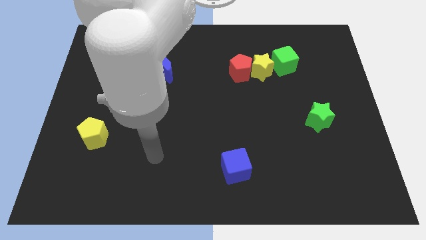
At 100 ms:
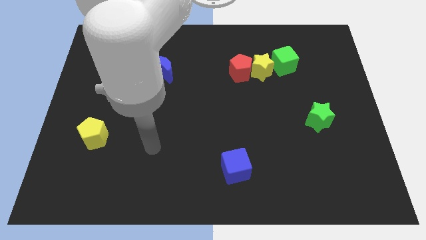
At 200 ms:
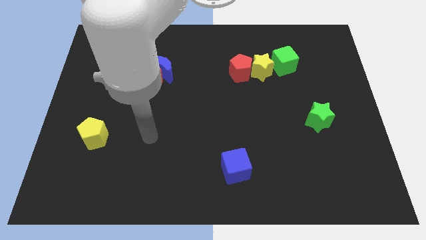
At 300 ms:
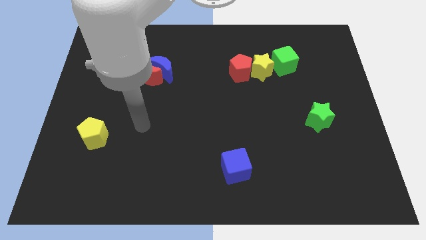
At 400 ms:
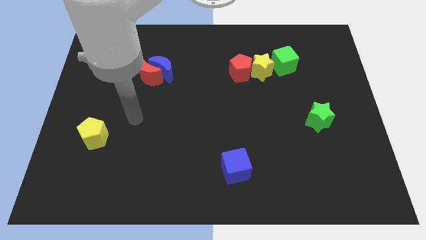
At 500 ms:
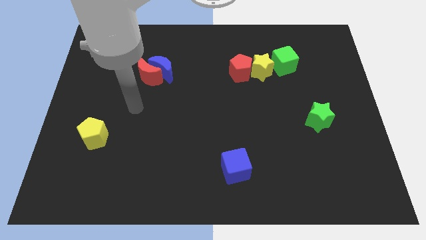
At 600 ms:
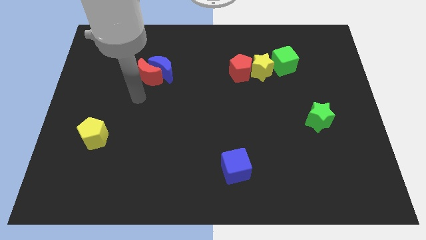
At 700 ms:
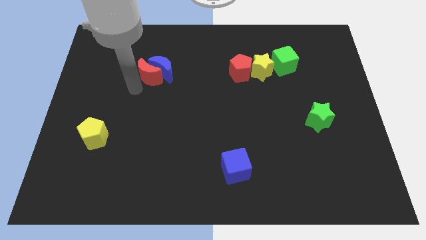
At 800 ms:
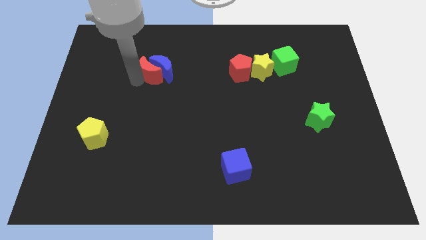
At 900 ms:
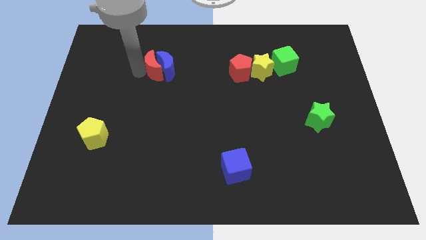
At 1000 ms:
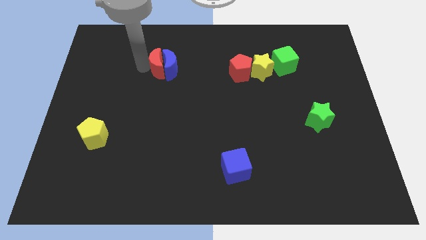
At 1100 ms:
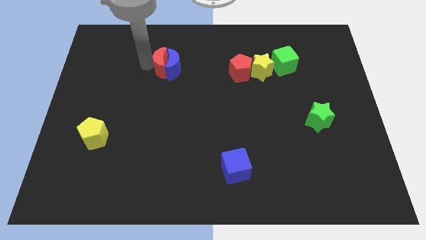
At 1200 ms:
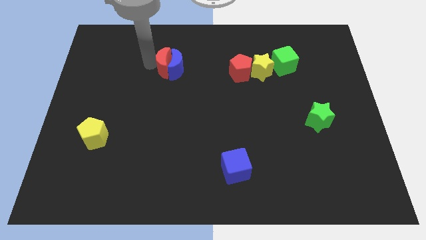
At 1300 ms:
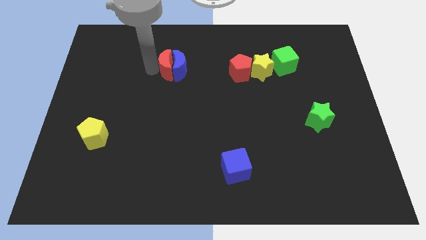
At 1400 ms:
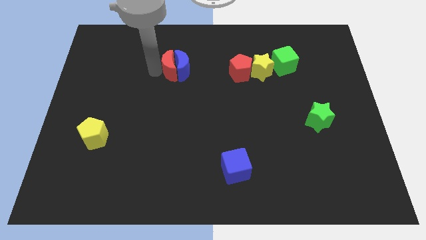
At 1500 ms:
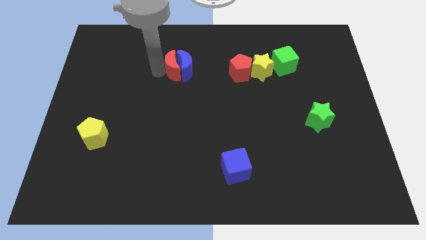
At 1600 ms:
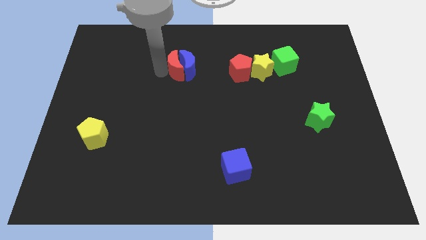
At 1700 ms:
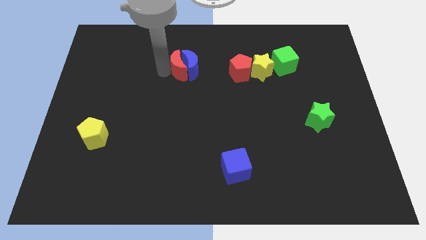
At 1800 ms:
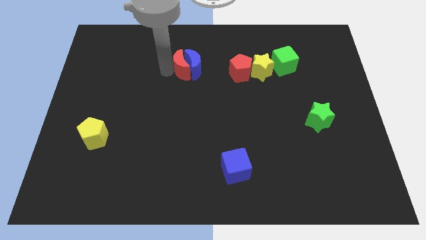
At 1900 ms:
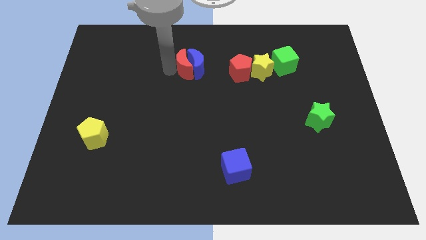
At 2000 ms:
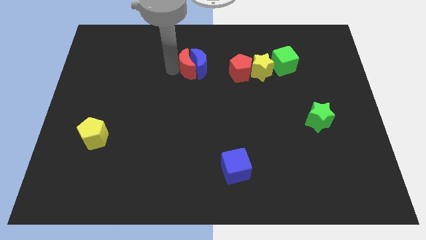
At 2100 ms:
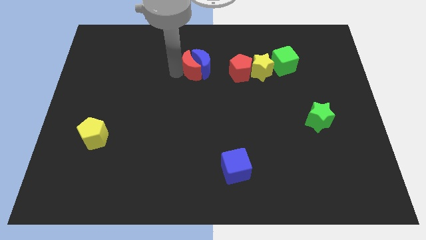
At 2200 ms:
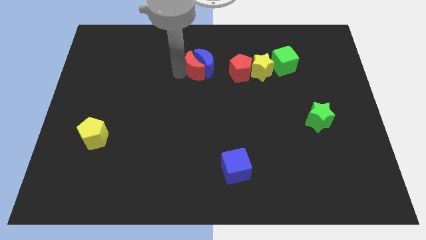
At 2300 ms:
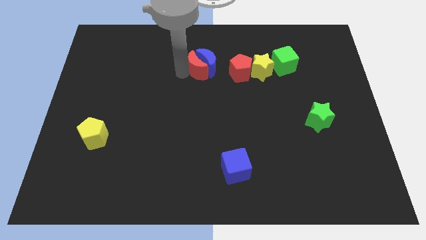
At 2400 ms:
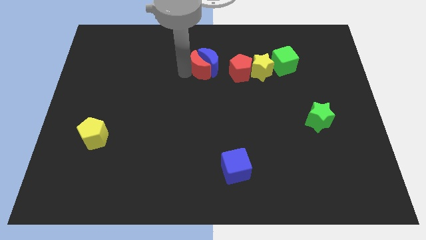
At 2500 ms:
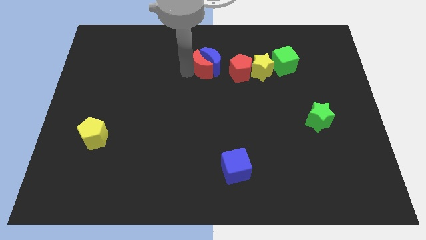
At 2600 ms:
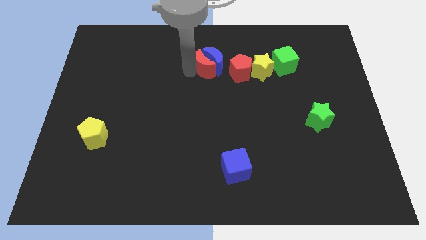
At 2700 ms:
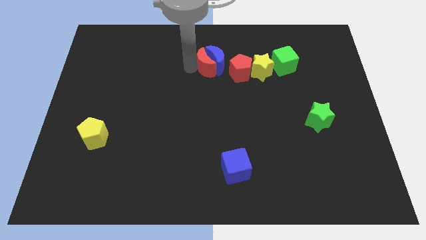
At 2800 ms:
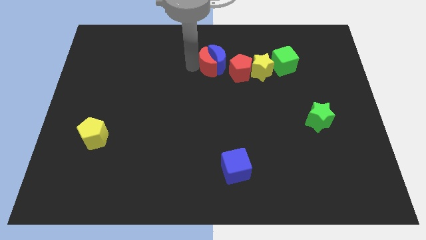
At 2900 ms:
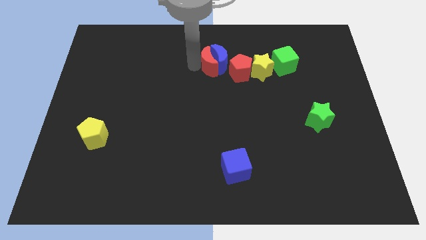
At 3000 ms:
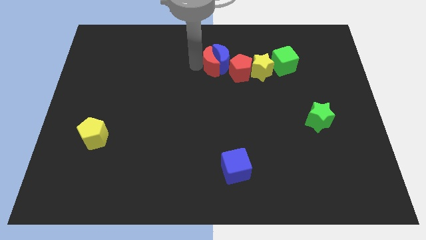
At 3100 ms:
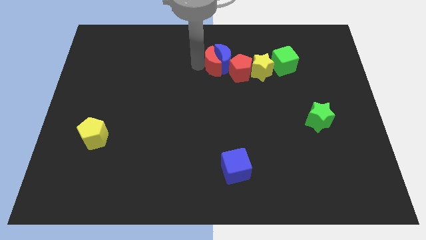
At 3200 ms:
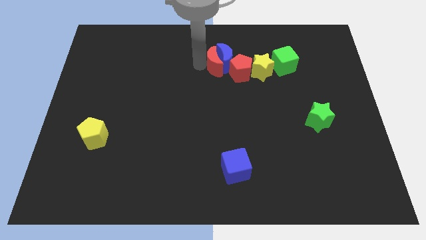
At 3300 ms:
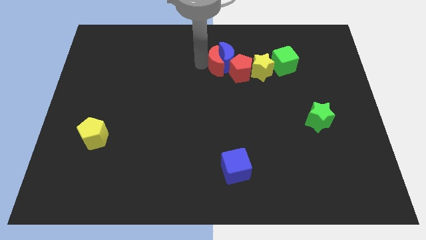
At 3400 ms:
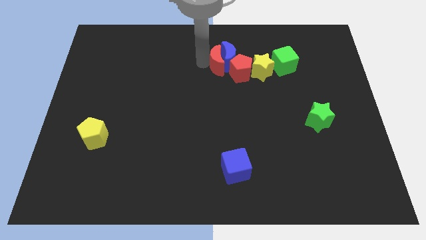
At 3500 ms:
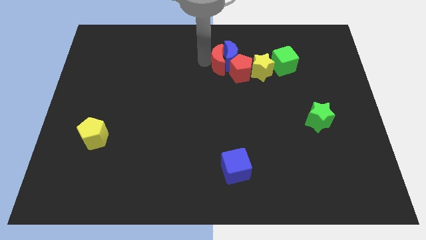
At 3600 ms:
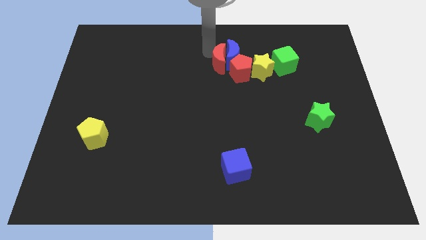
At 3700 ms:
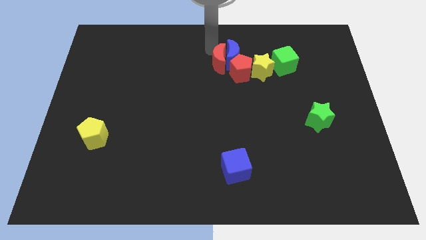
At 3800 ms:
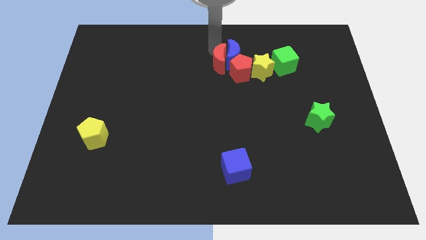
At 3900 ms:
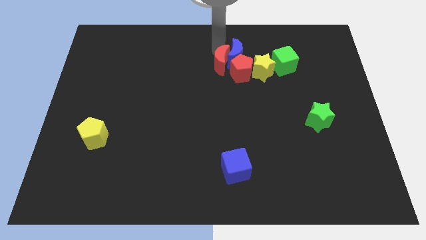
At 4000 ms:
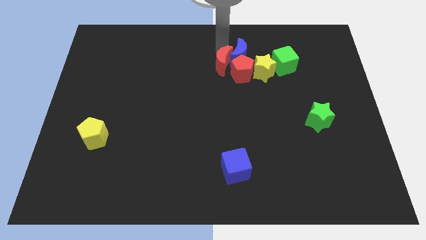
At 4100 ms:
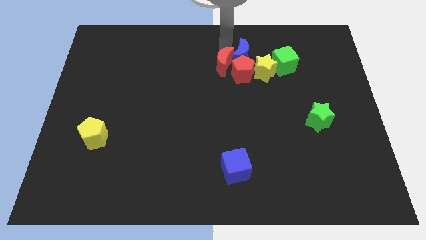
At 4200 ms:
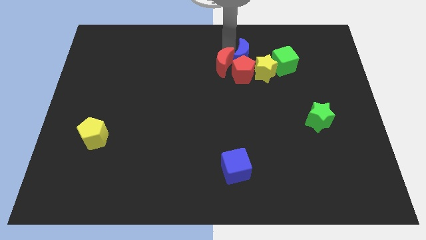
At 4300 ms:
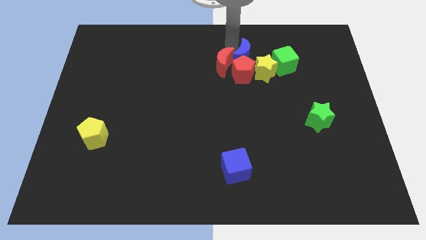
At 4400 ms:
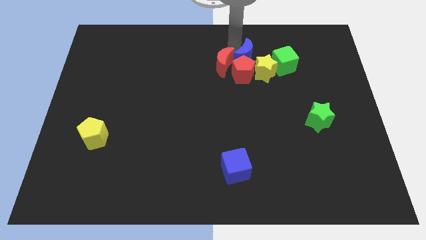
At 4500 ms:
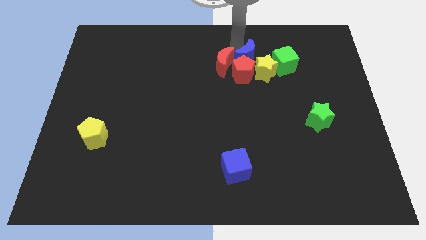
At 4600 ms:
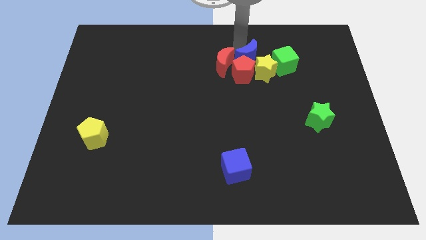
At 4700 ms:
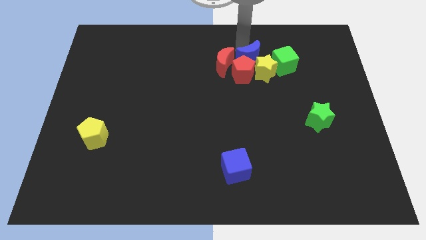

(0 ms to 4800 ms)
put the blue moon towards the yellow star

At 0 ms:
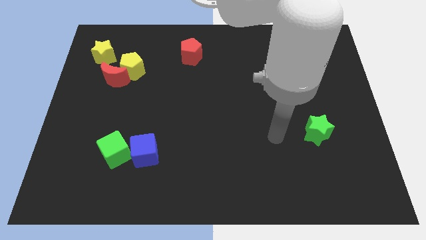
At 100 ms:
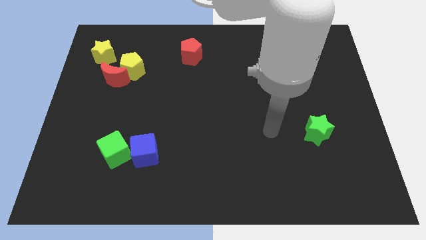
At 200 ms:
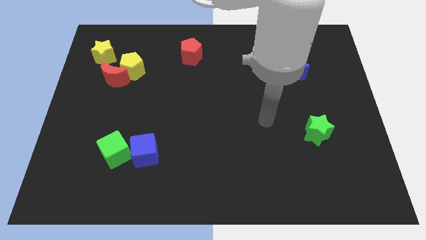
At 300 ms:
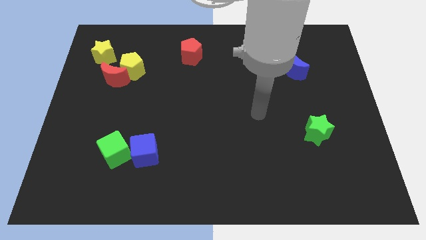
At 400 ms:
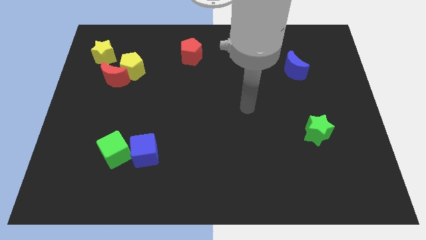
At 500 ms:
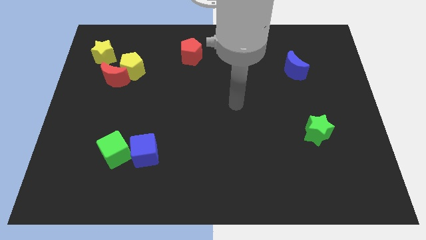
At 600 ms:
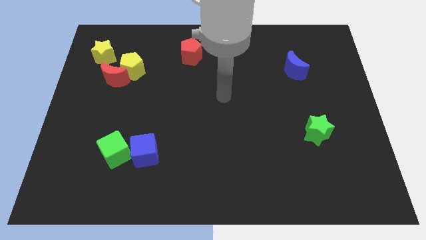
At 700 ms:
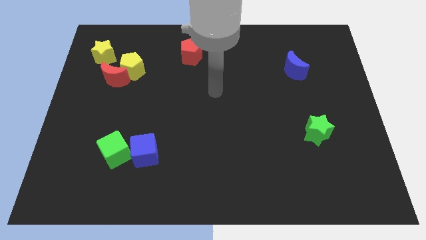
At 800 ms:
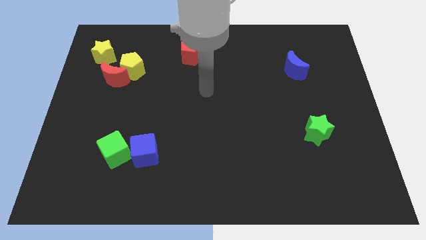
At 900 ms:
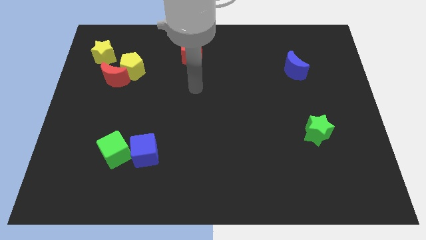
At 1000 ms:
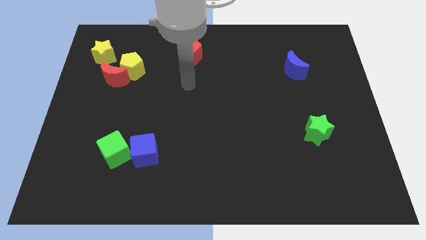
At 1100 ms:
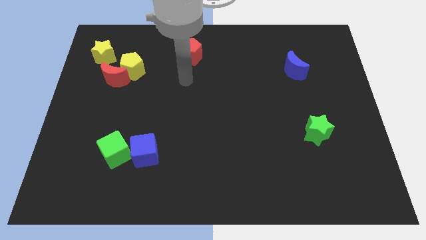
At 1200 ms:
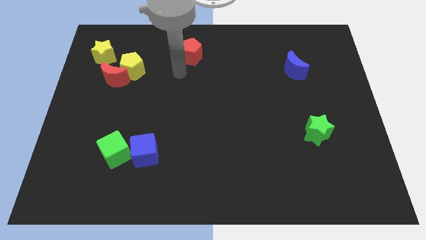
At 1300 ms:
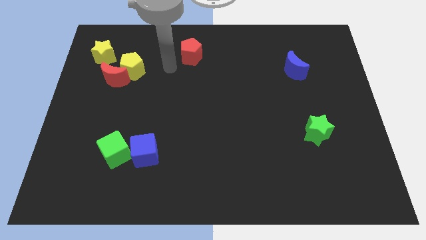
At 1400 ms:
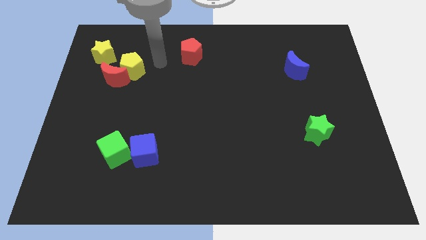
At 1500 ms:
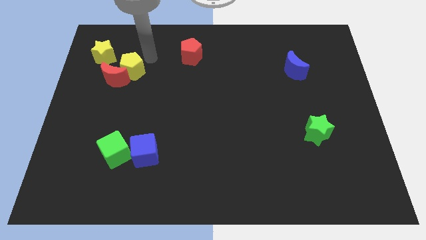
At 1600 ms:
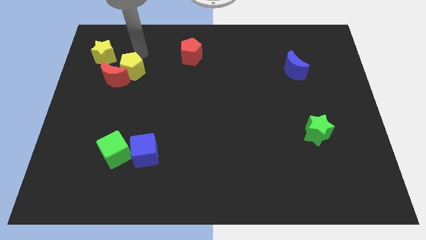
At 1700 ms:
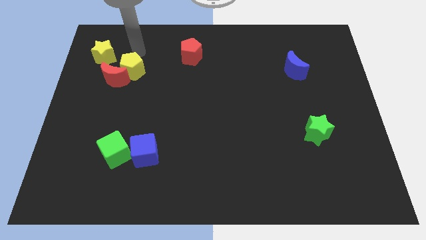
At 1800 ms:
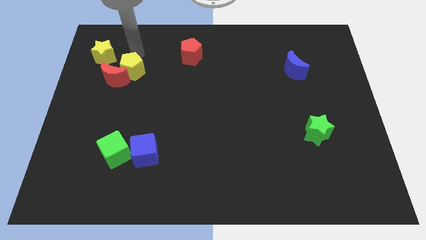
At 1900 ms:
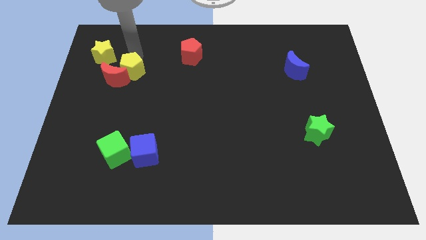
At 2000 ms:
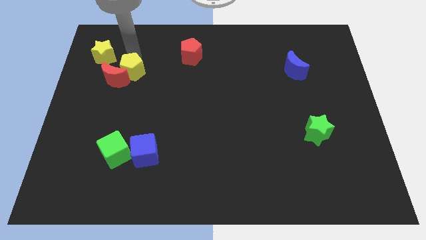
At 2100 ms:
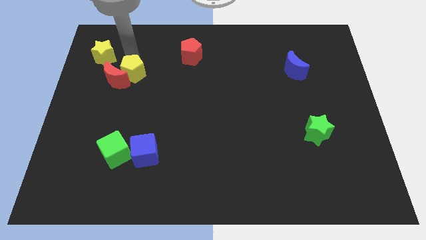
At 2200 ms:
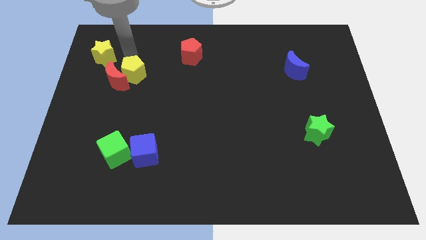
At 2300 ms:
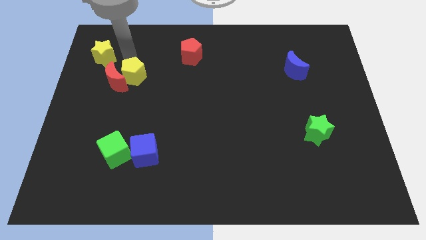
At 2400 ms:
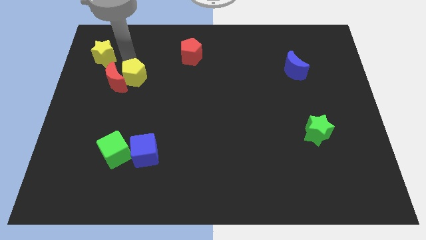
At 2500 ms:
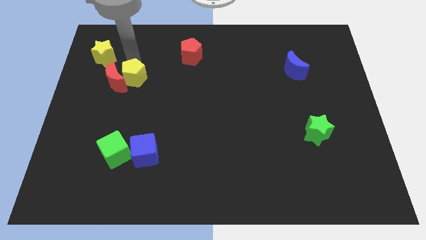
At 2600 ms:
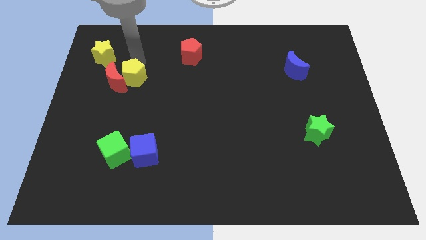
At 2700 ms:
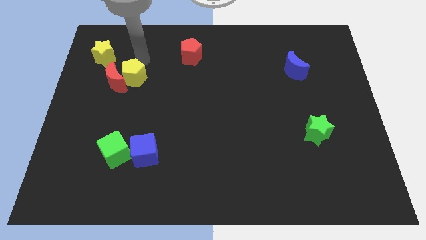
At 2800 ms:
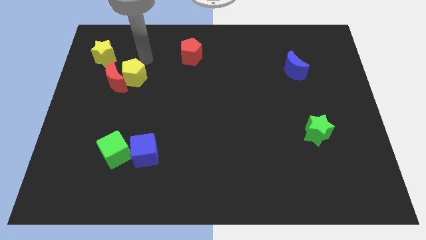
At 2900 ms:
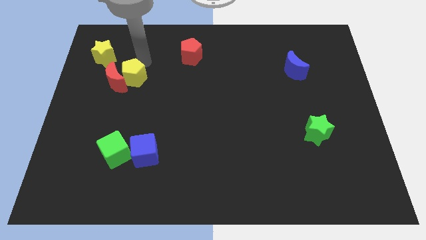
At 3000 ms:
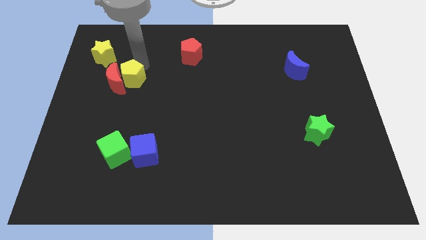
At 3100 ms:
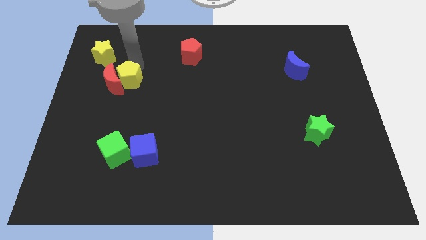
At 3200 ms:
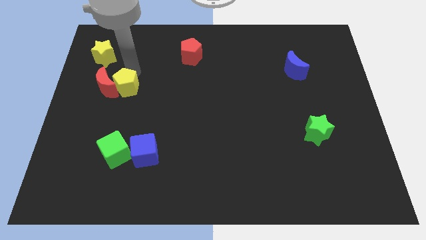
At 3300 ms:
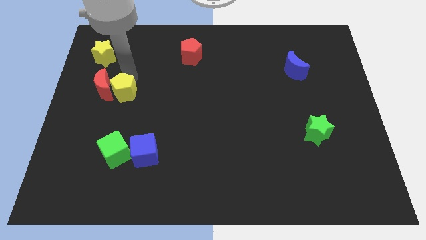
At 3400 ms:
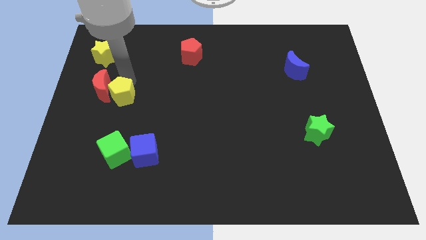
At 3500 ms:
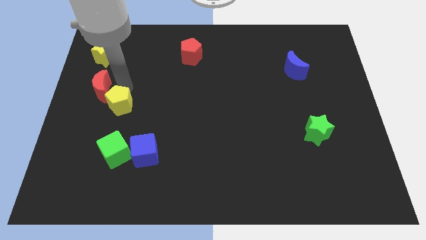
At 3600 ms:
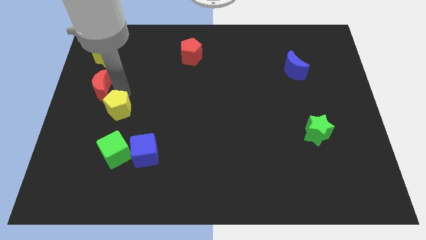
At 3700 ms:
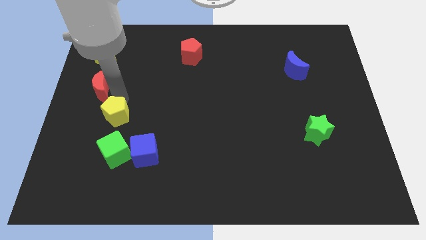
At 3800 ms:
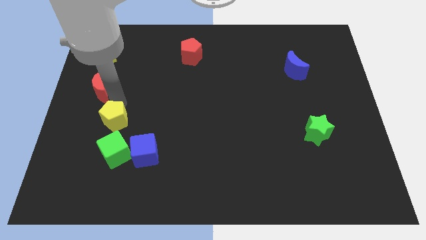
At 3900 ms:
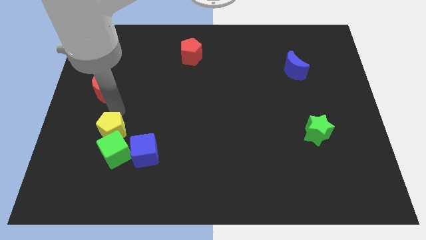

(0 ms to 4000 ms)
put the yellow pentagon towards the green cube
